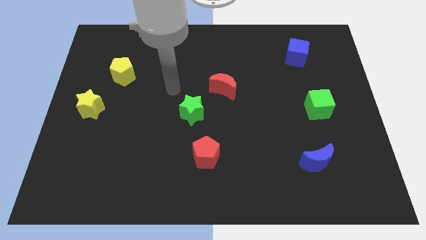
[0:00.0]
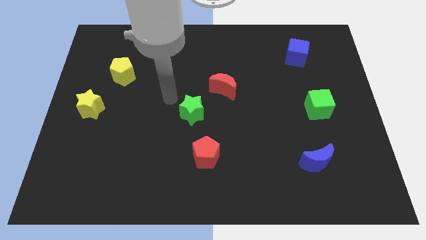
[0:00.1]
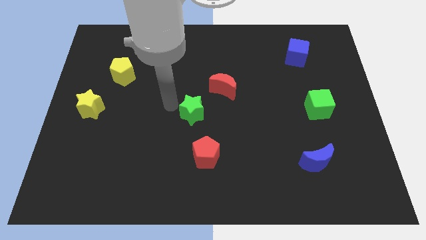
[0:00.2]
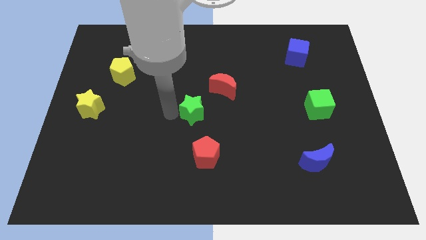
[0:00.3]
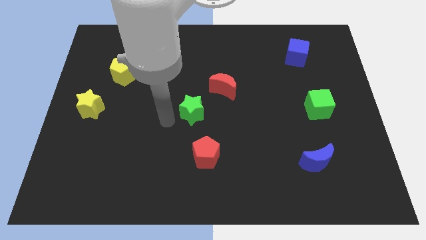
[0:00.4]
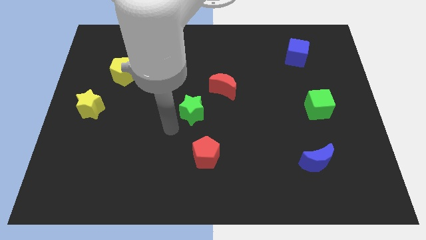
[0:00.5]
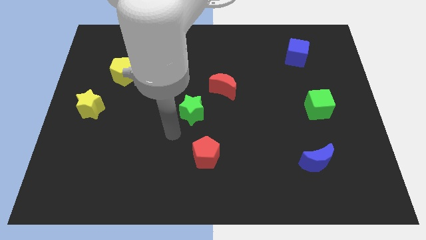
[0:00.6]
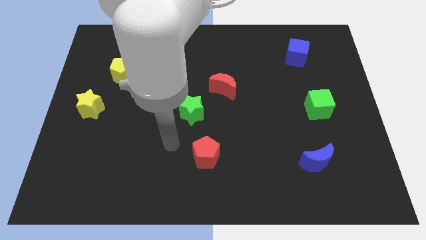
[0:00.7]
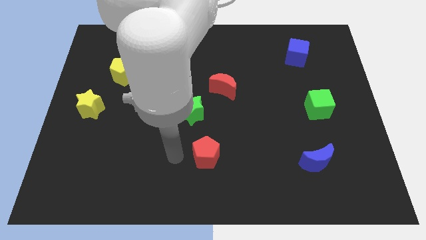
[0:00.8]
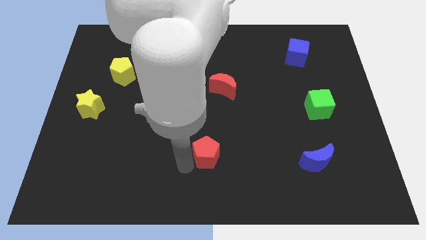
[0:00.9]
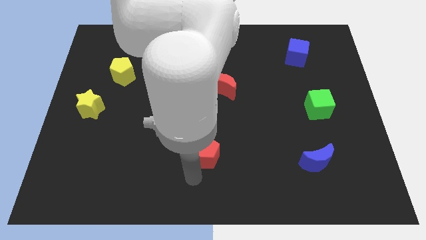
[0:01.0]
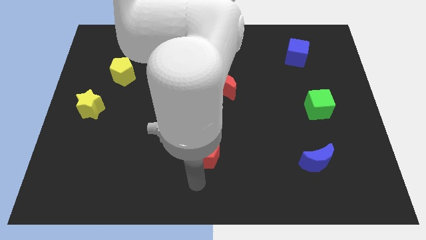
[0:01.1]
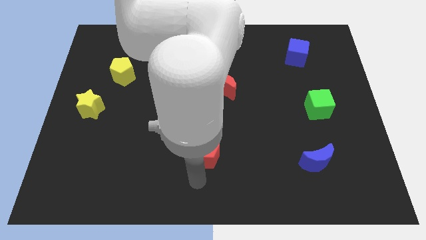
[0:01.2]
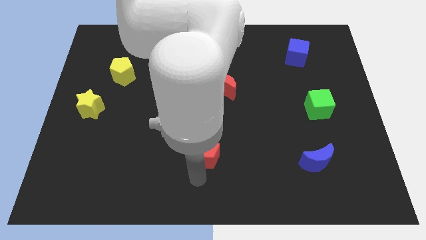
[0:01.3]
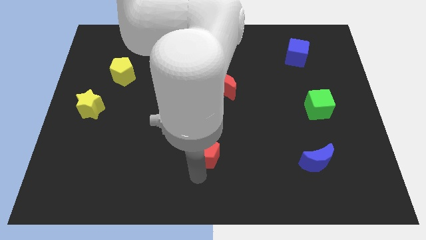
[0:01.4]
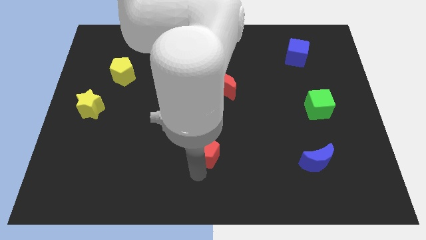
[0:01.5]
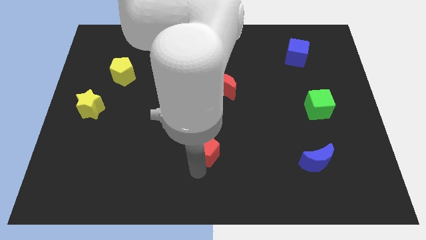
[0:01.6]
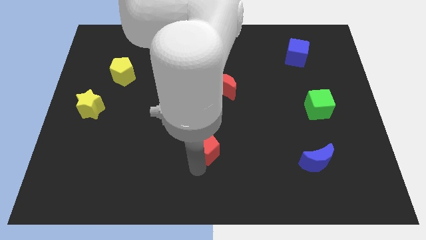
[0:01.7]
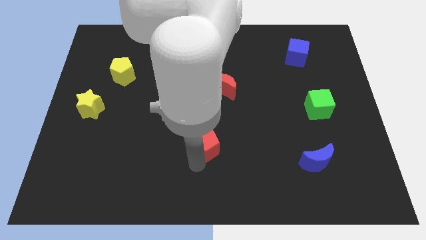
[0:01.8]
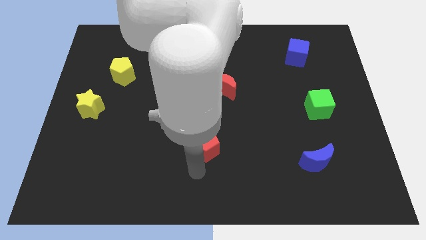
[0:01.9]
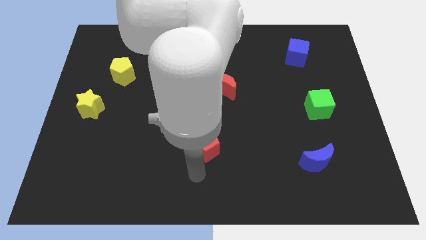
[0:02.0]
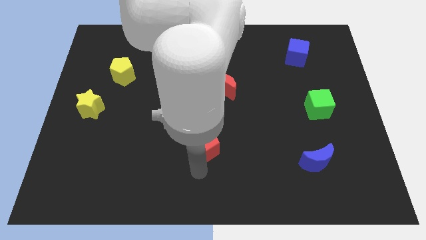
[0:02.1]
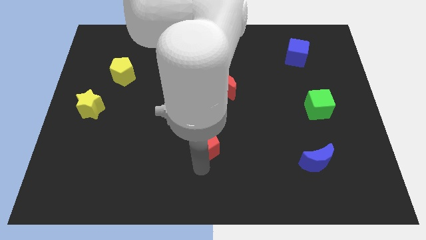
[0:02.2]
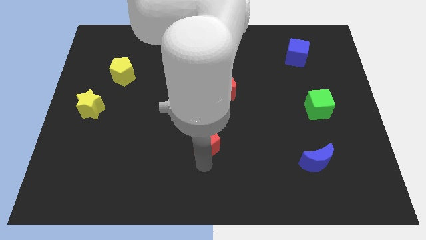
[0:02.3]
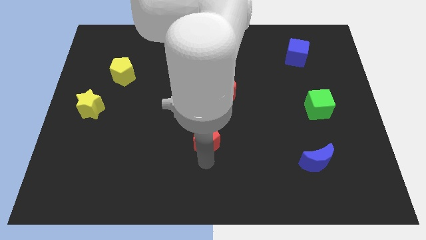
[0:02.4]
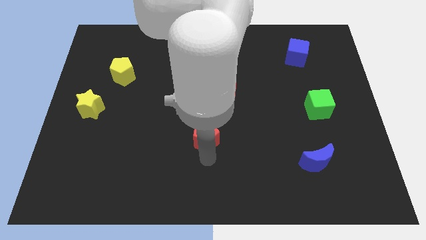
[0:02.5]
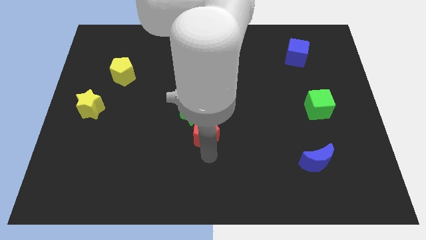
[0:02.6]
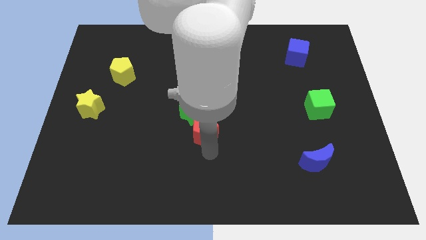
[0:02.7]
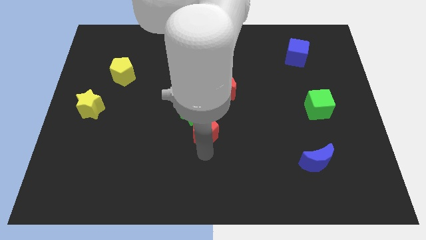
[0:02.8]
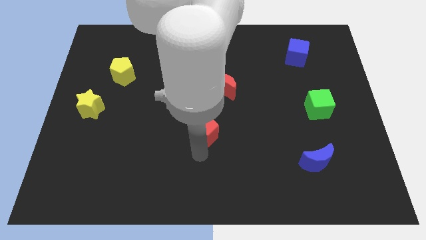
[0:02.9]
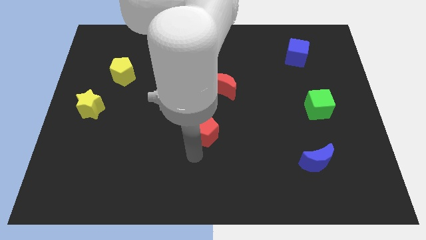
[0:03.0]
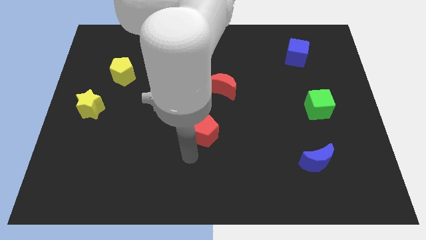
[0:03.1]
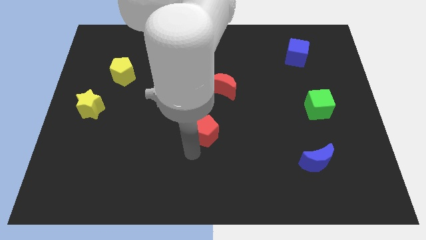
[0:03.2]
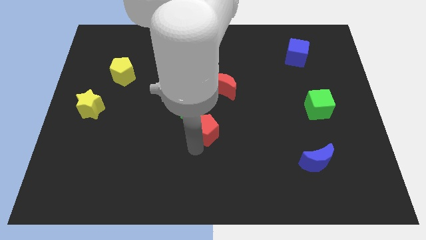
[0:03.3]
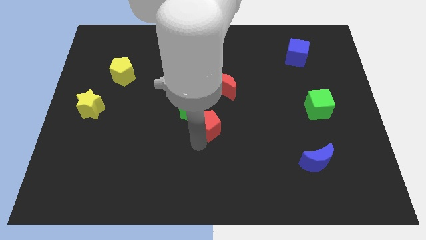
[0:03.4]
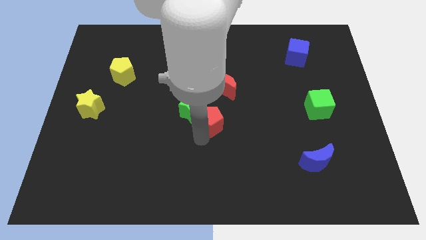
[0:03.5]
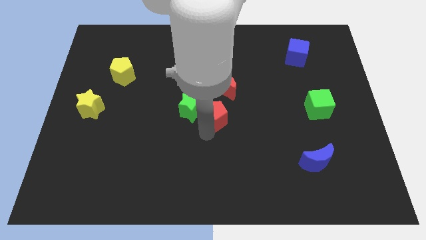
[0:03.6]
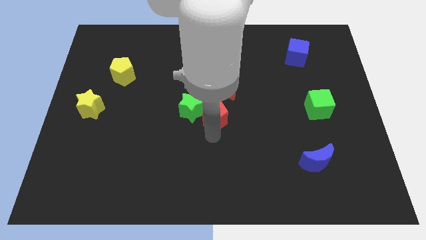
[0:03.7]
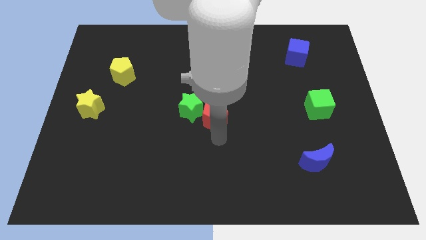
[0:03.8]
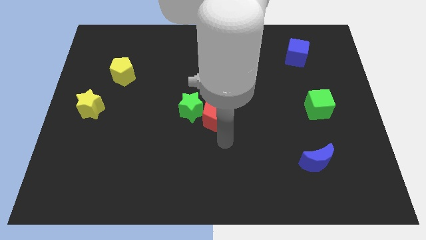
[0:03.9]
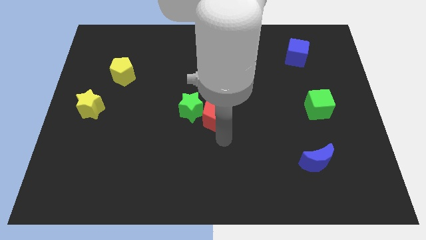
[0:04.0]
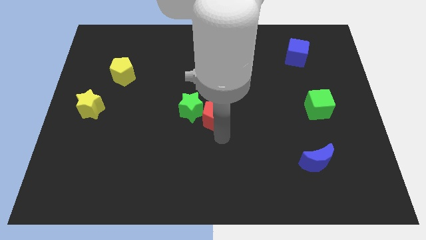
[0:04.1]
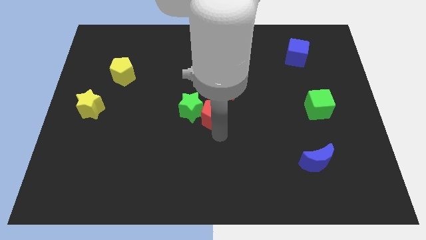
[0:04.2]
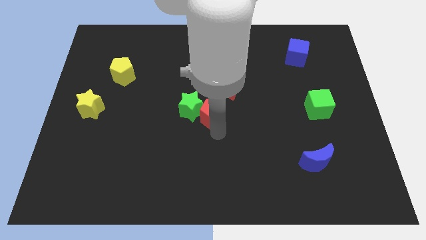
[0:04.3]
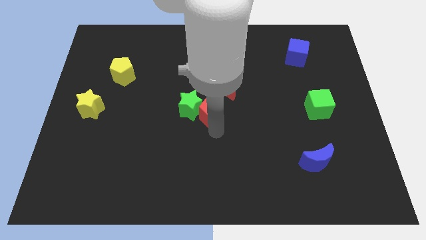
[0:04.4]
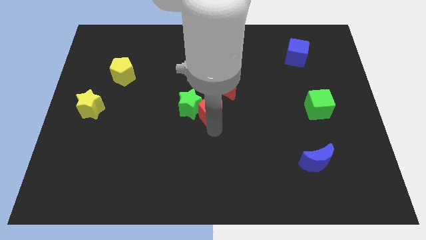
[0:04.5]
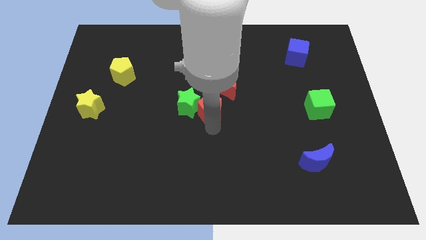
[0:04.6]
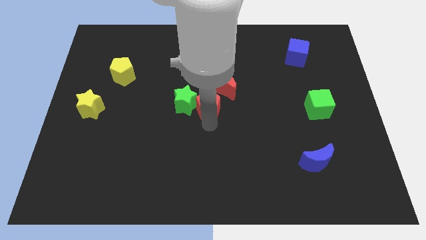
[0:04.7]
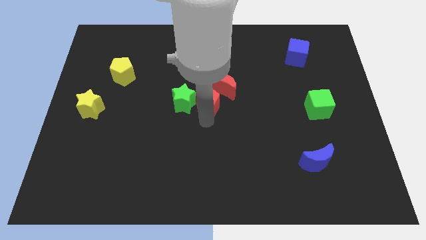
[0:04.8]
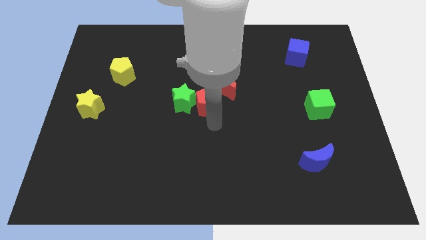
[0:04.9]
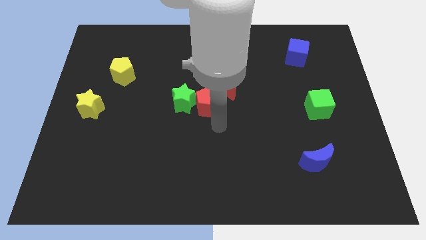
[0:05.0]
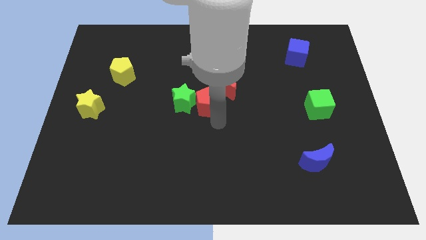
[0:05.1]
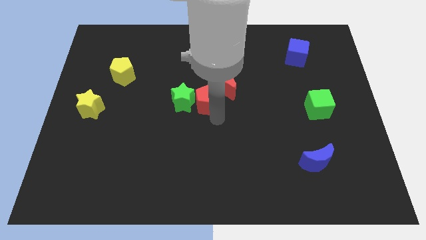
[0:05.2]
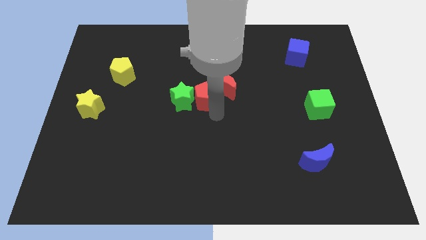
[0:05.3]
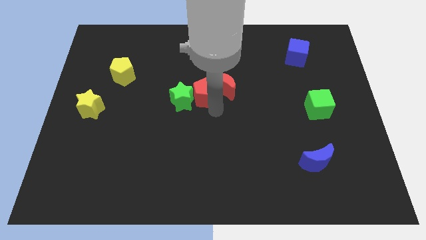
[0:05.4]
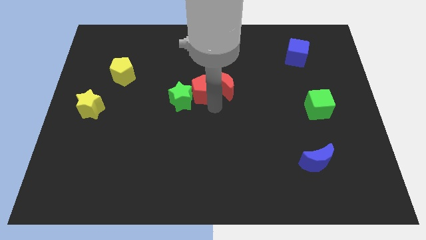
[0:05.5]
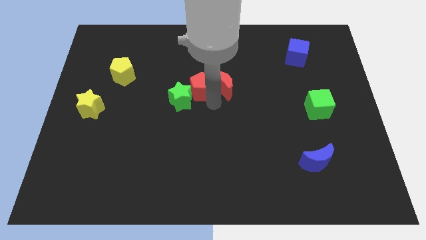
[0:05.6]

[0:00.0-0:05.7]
push the red pentagon above the green star
